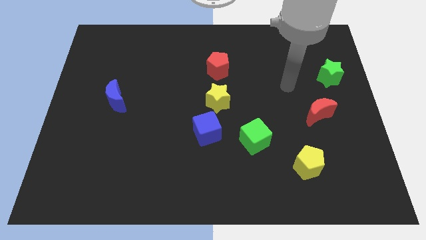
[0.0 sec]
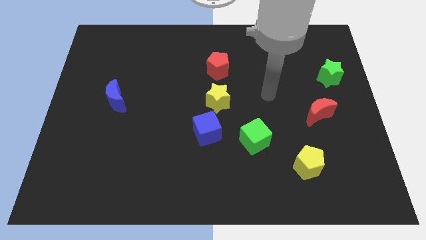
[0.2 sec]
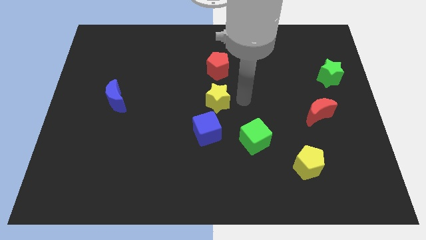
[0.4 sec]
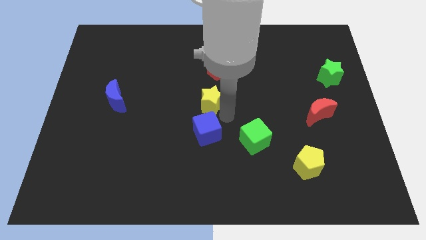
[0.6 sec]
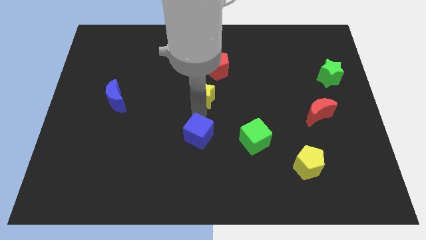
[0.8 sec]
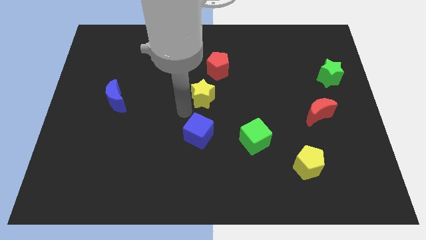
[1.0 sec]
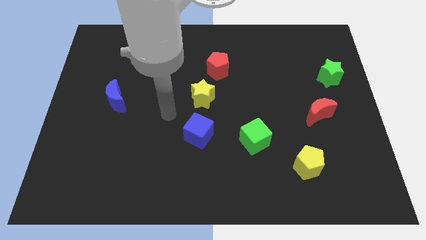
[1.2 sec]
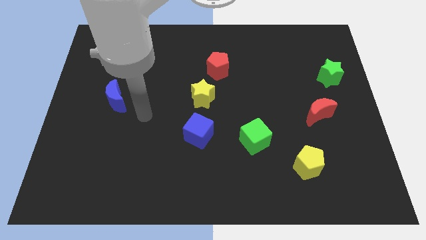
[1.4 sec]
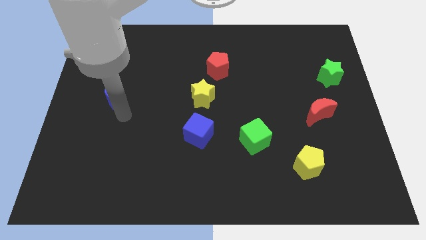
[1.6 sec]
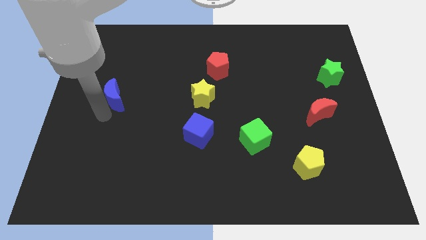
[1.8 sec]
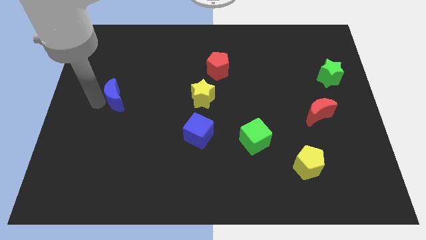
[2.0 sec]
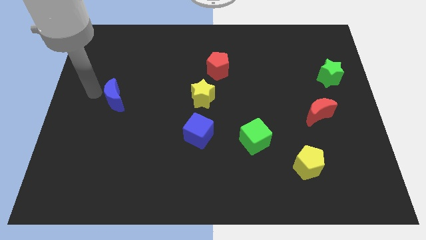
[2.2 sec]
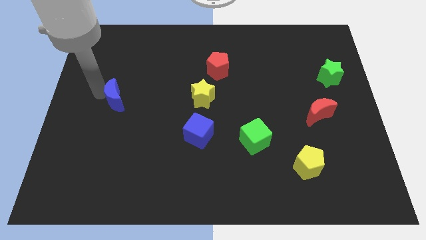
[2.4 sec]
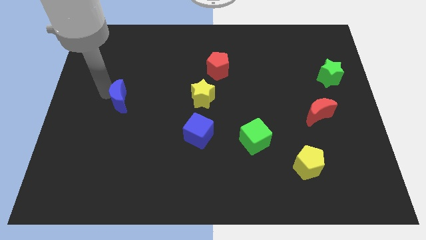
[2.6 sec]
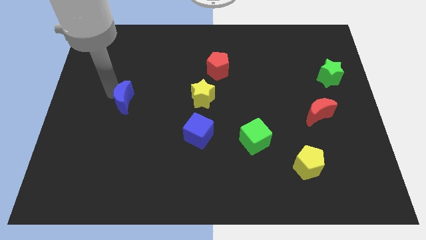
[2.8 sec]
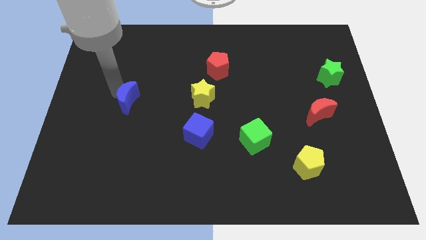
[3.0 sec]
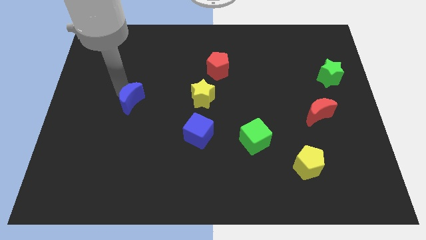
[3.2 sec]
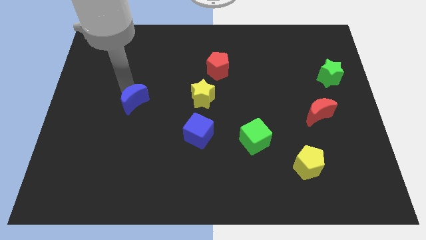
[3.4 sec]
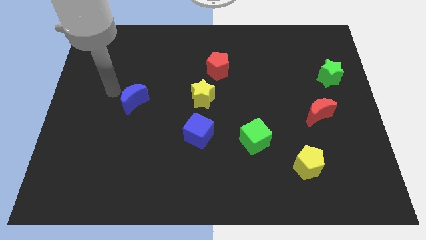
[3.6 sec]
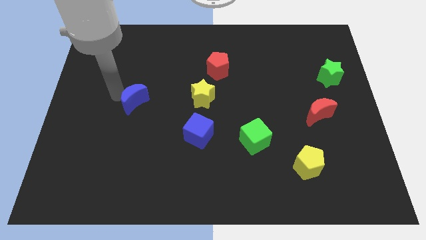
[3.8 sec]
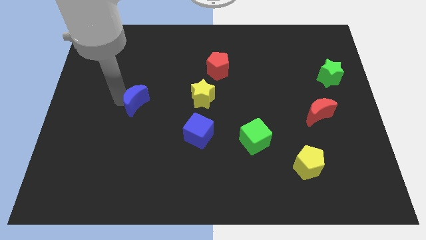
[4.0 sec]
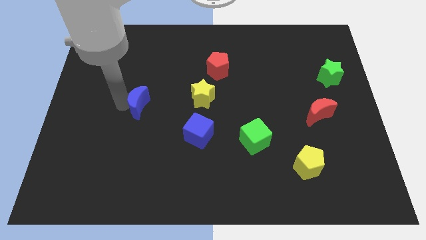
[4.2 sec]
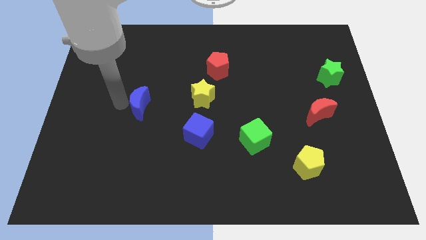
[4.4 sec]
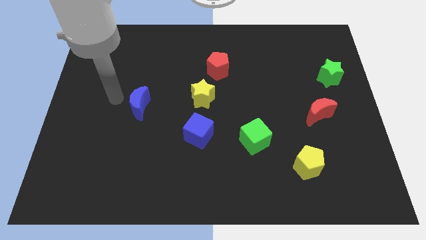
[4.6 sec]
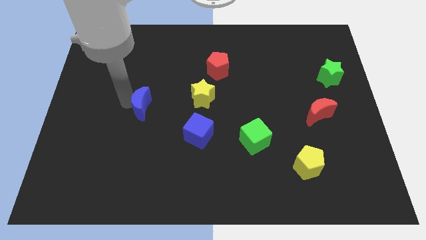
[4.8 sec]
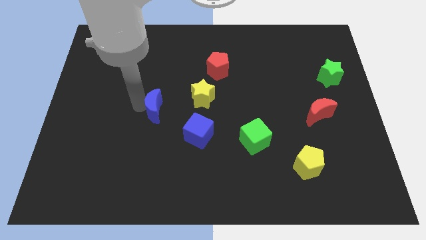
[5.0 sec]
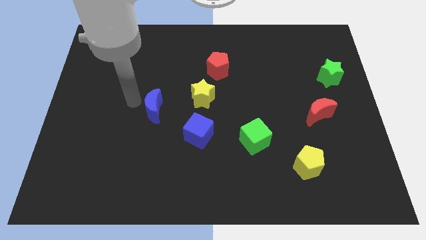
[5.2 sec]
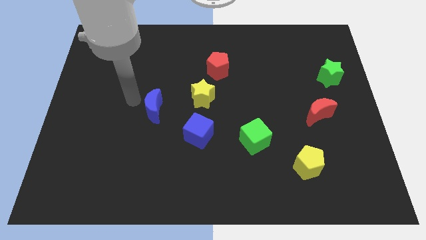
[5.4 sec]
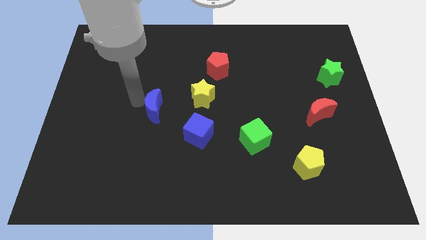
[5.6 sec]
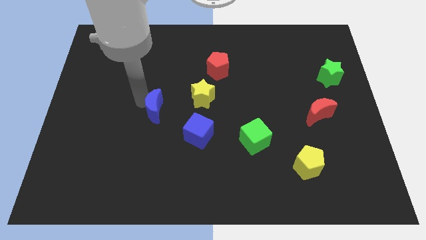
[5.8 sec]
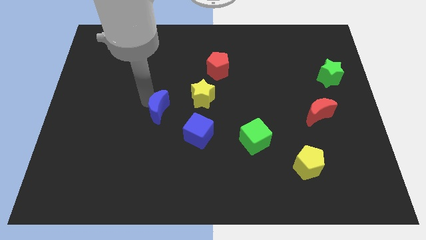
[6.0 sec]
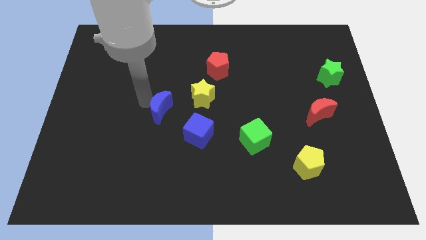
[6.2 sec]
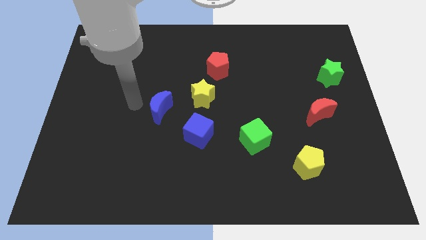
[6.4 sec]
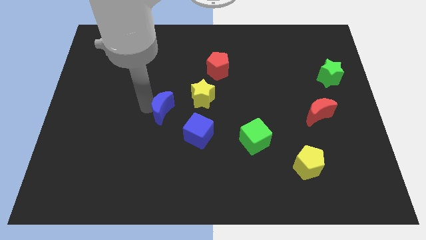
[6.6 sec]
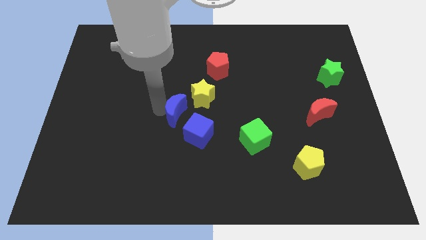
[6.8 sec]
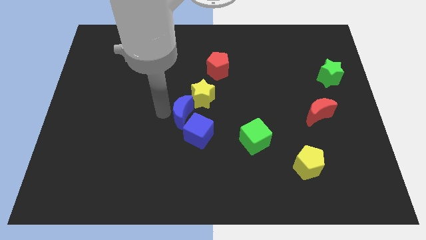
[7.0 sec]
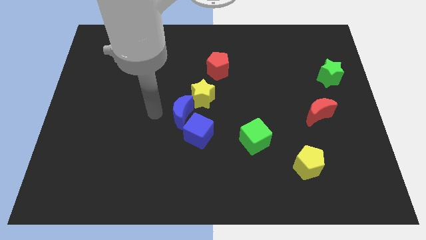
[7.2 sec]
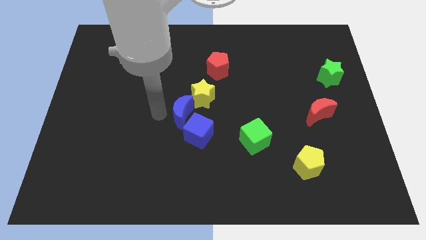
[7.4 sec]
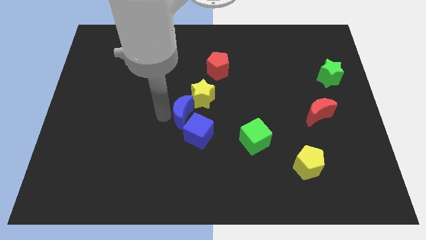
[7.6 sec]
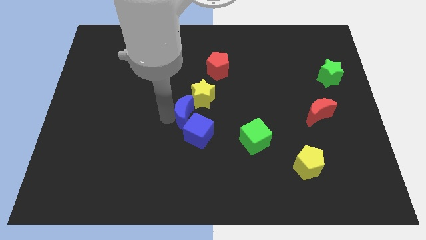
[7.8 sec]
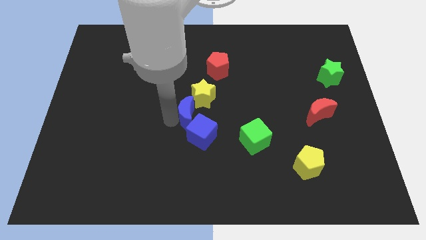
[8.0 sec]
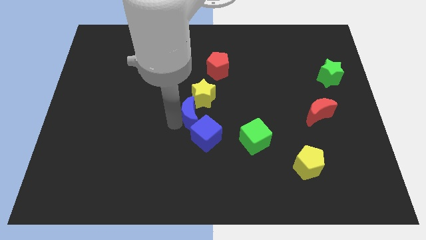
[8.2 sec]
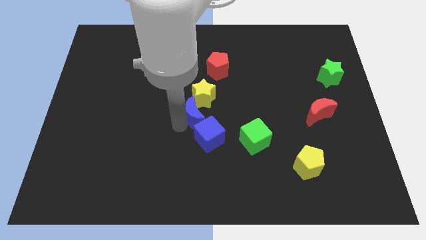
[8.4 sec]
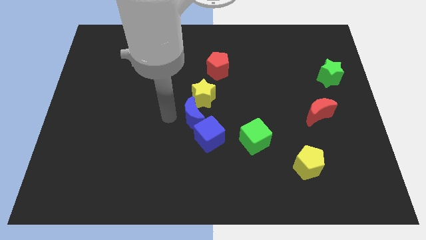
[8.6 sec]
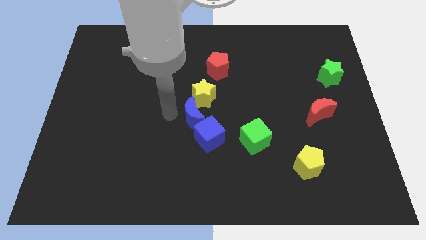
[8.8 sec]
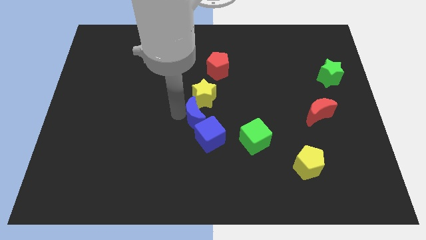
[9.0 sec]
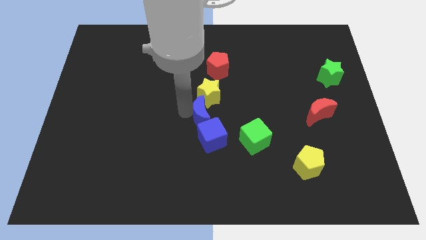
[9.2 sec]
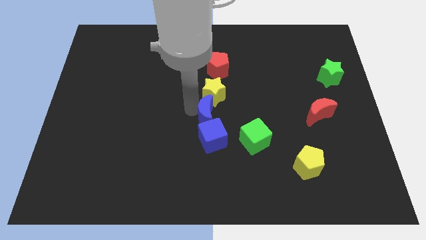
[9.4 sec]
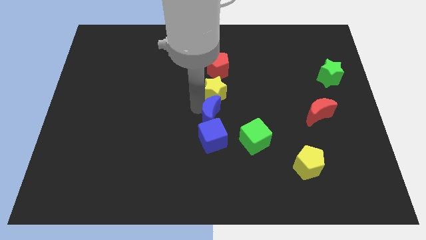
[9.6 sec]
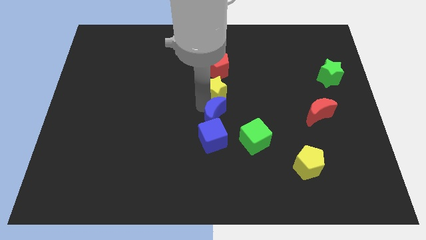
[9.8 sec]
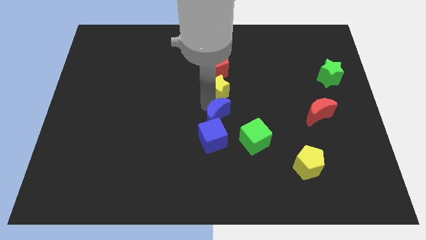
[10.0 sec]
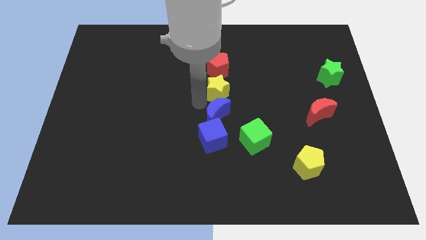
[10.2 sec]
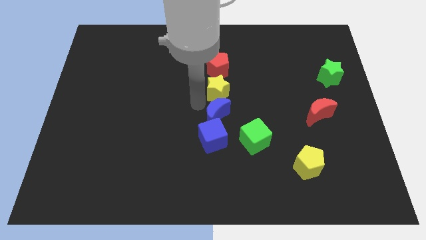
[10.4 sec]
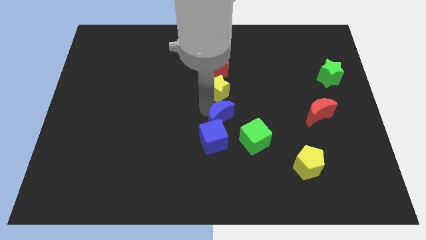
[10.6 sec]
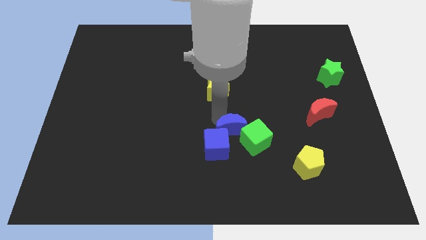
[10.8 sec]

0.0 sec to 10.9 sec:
push the blue moon towards the green cube

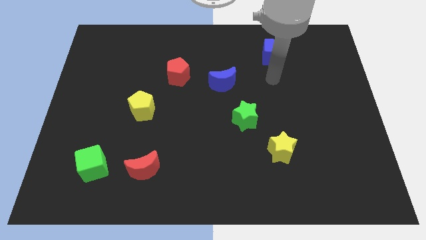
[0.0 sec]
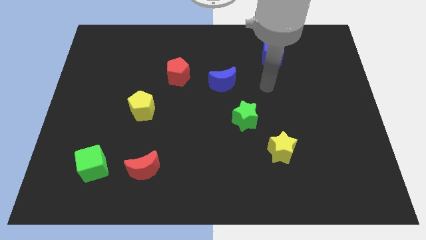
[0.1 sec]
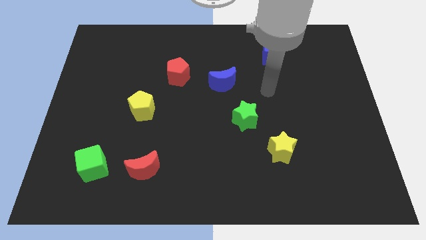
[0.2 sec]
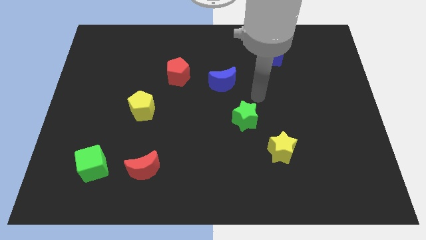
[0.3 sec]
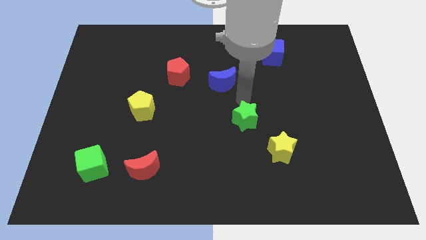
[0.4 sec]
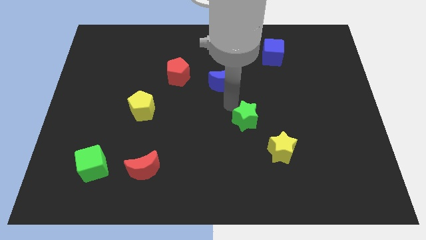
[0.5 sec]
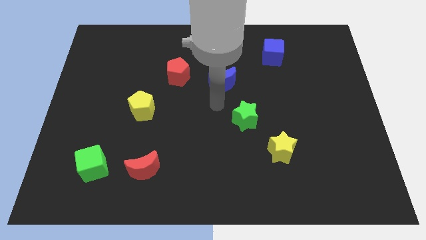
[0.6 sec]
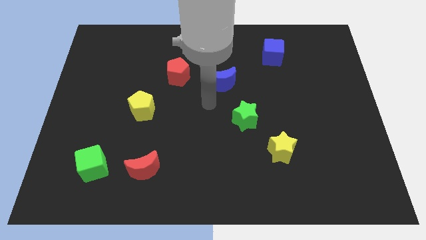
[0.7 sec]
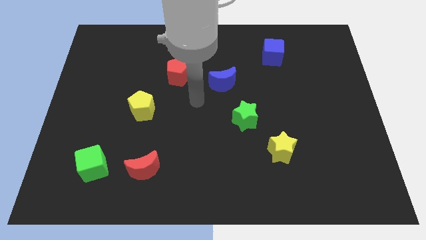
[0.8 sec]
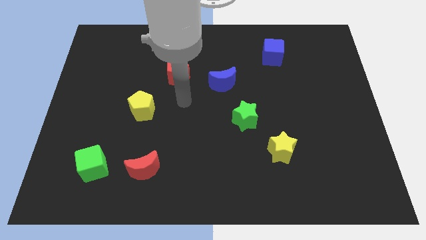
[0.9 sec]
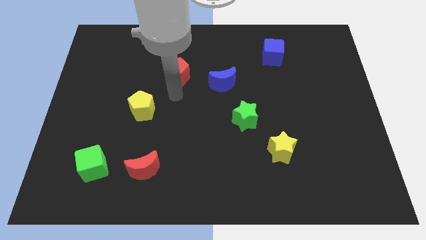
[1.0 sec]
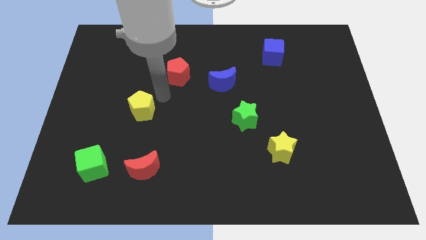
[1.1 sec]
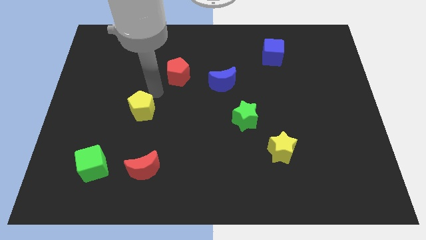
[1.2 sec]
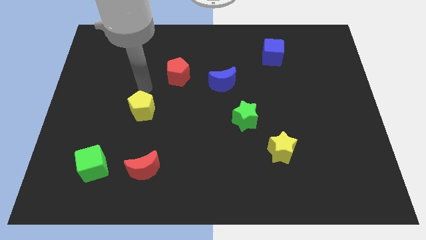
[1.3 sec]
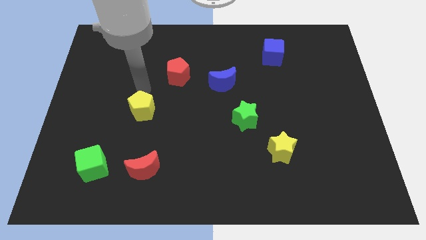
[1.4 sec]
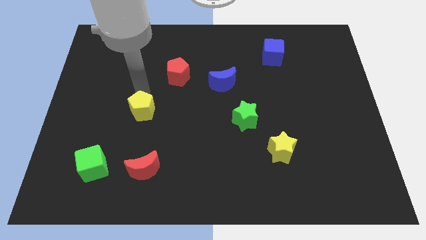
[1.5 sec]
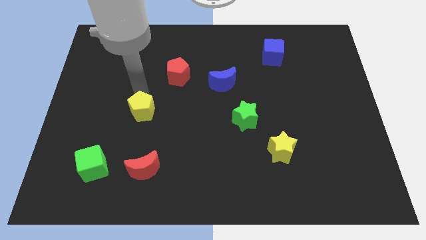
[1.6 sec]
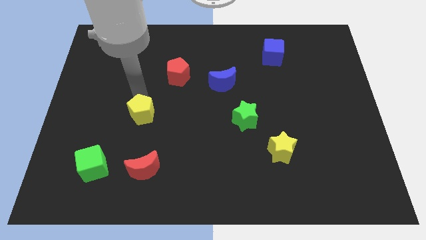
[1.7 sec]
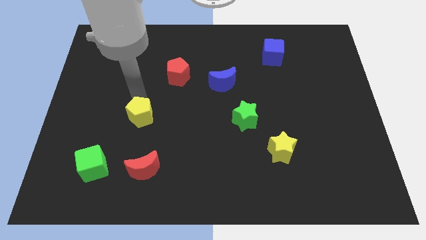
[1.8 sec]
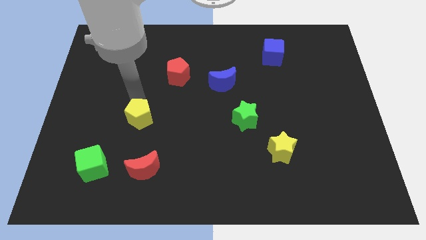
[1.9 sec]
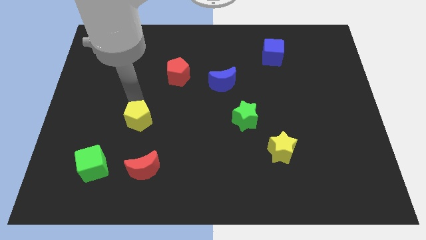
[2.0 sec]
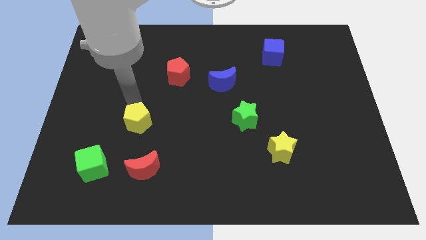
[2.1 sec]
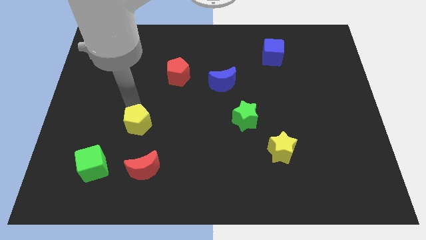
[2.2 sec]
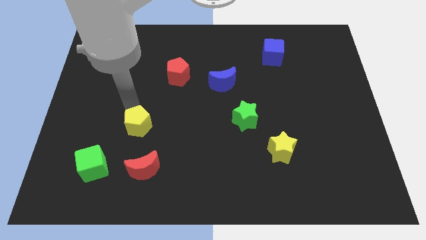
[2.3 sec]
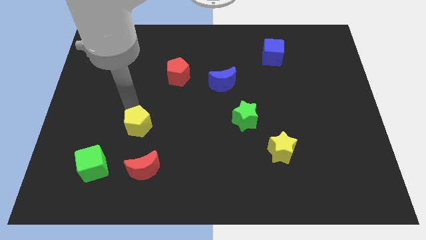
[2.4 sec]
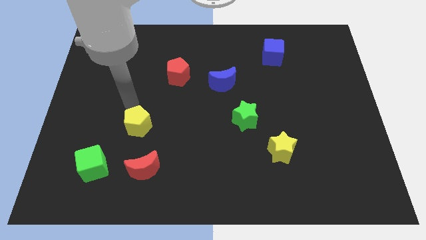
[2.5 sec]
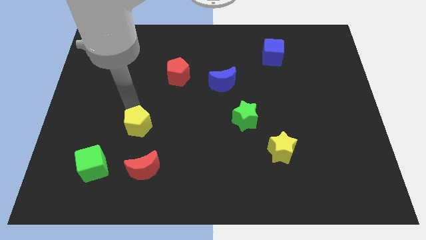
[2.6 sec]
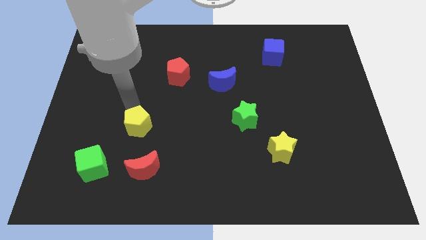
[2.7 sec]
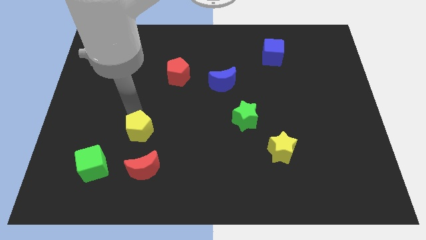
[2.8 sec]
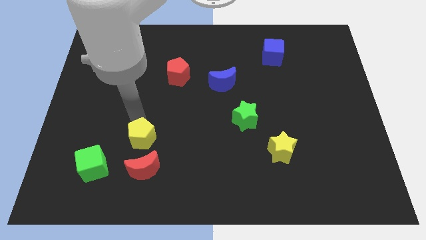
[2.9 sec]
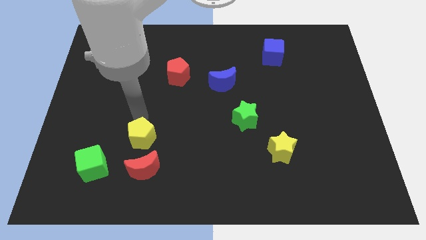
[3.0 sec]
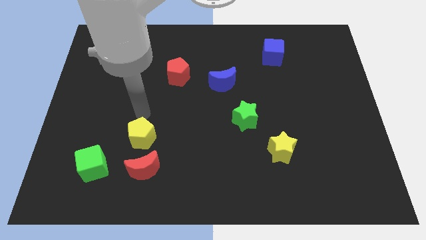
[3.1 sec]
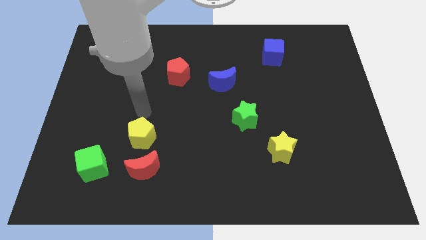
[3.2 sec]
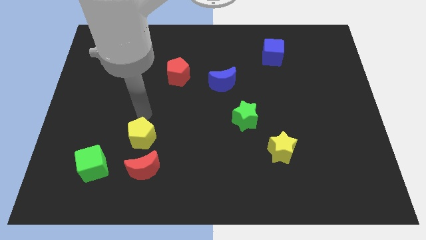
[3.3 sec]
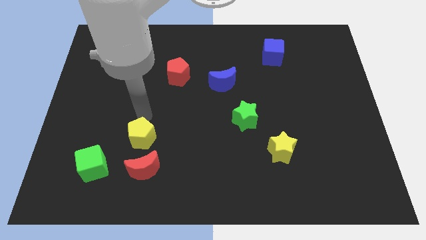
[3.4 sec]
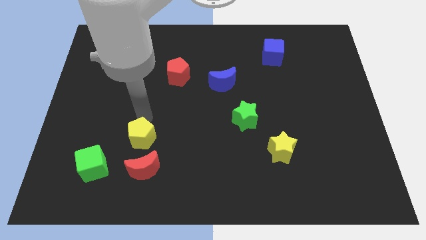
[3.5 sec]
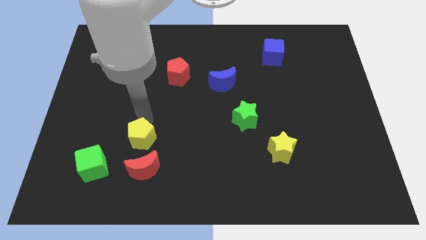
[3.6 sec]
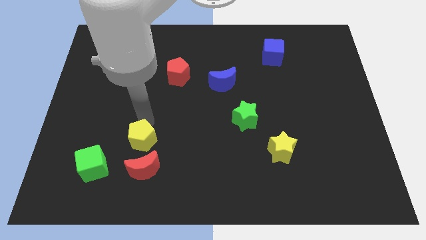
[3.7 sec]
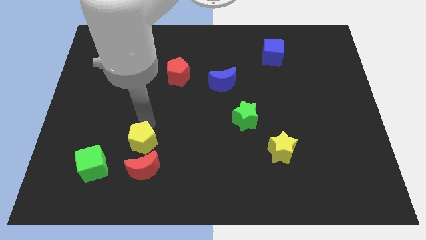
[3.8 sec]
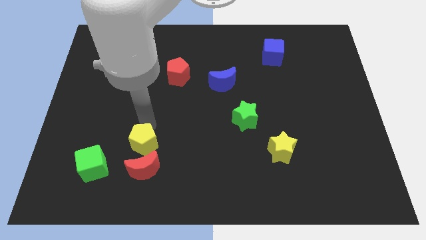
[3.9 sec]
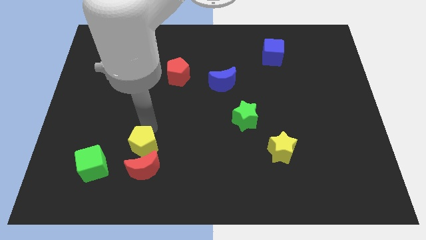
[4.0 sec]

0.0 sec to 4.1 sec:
push the yellow pentagon close to the red moon
